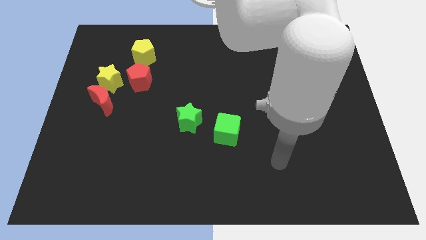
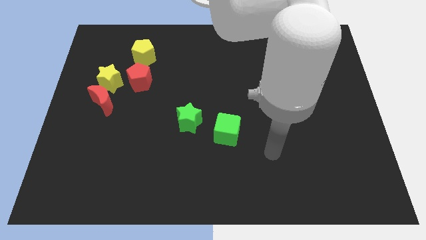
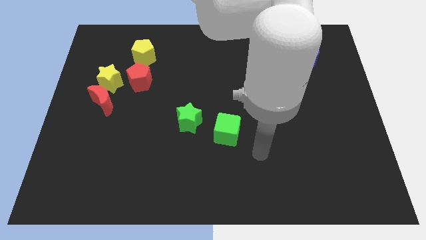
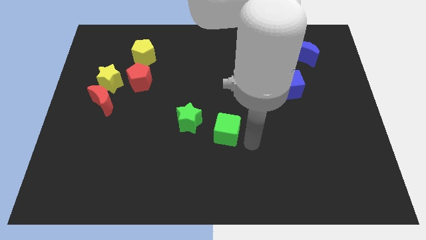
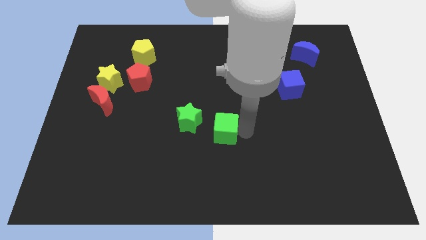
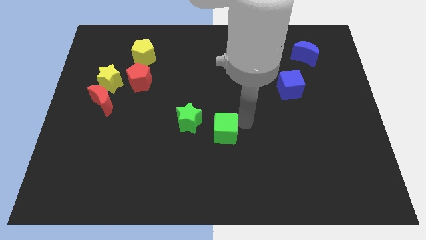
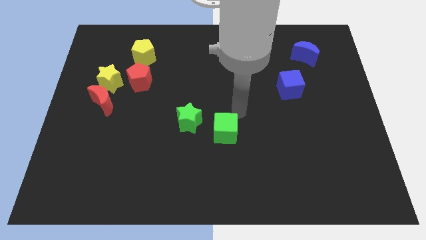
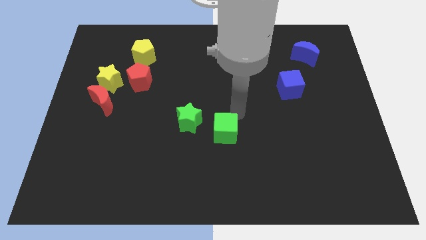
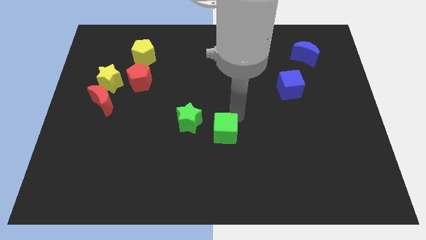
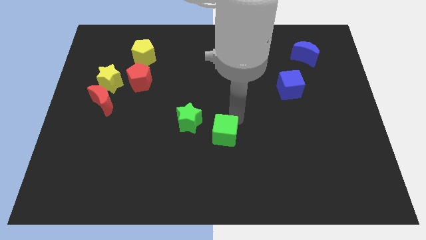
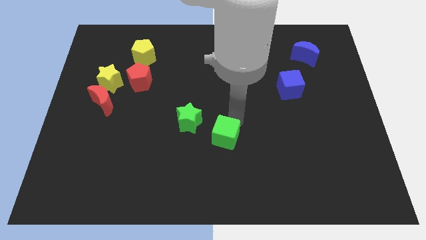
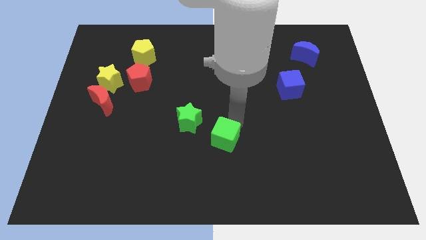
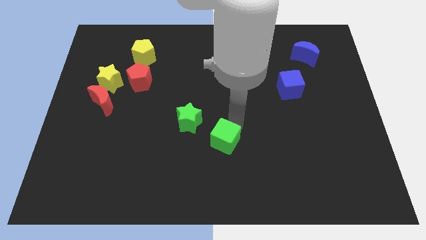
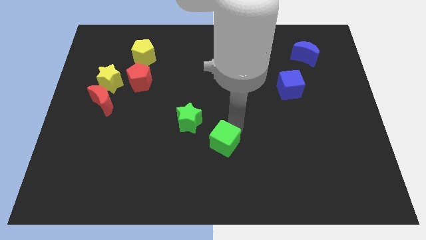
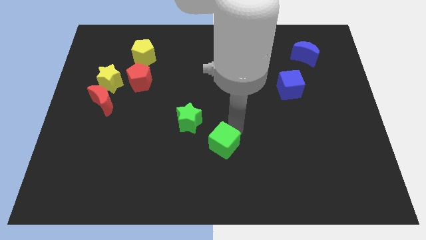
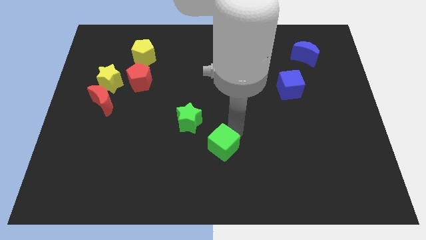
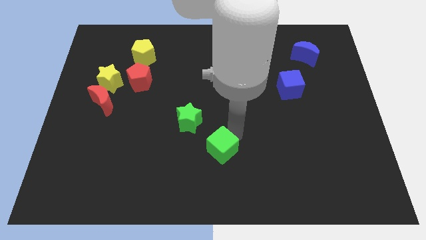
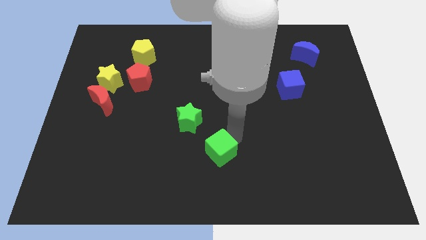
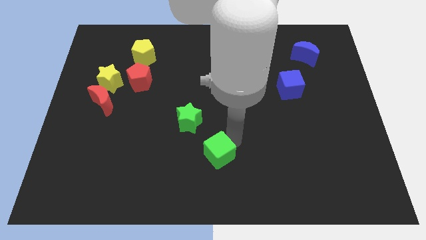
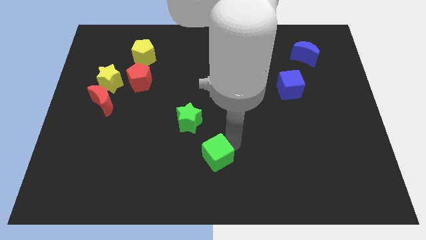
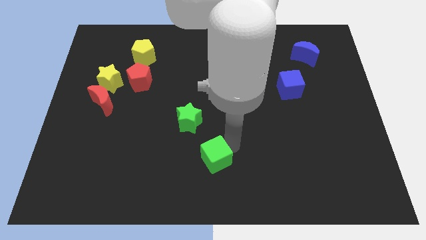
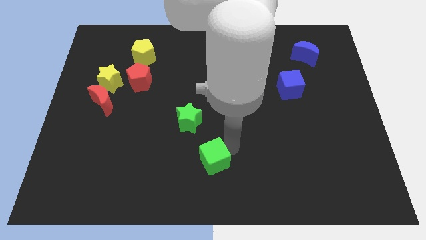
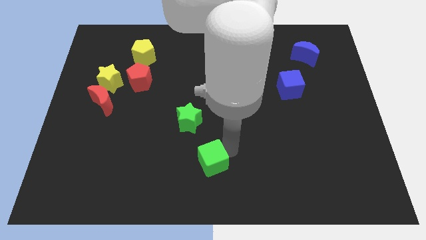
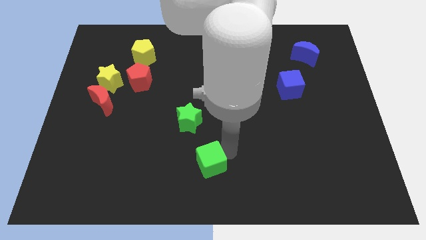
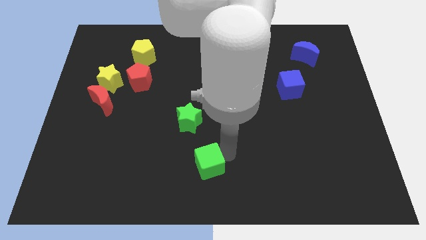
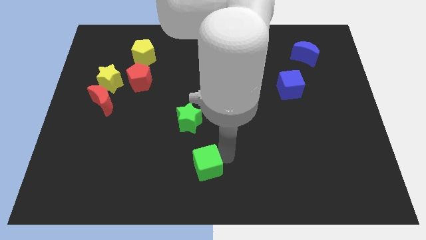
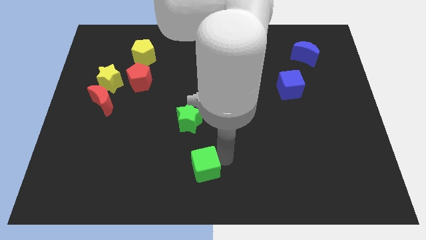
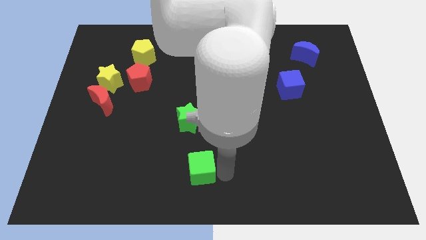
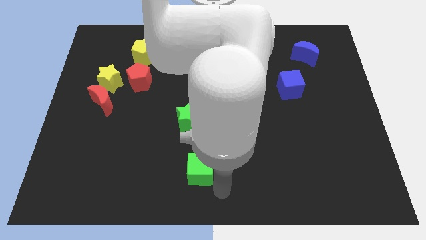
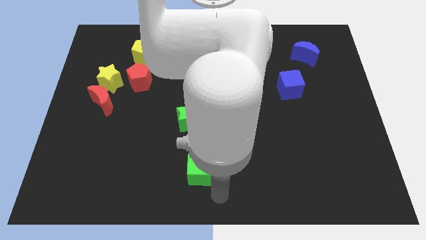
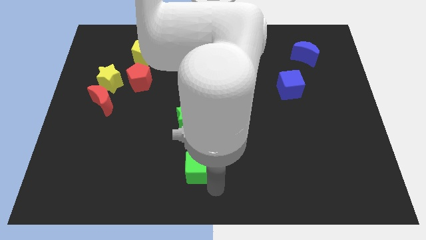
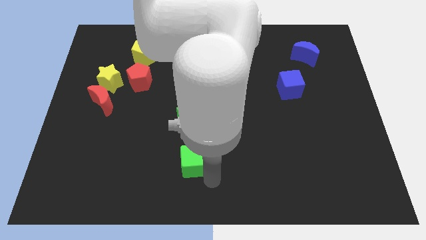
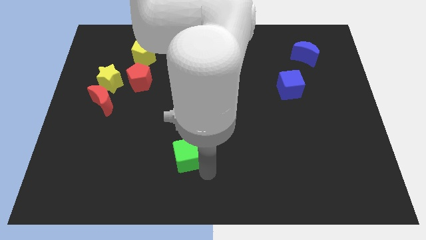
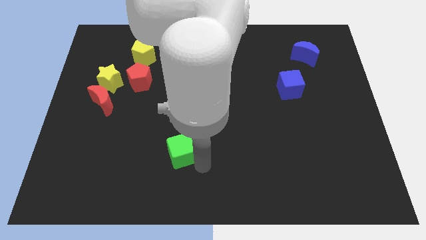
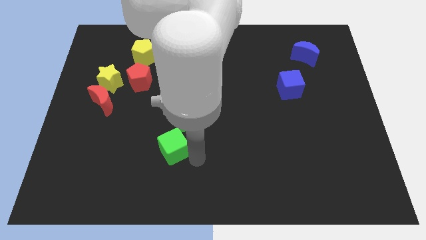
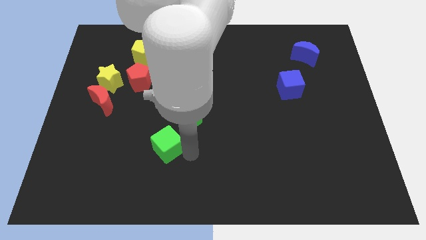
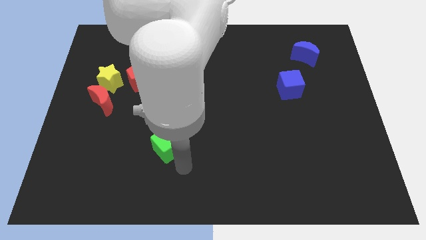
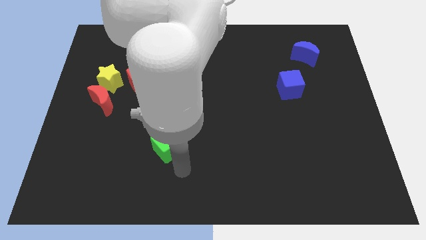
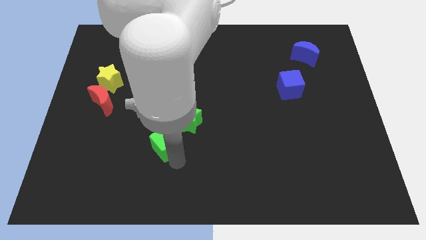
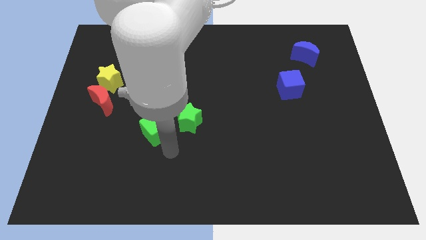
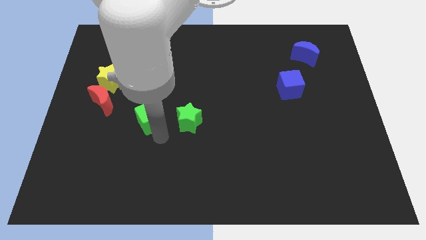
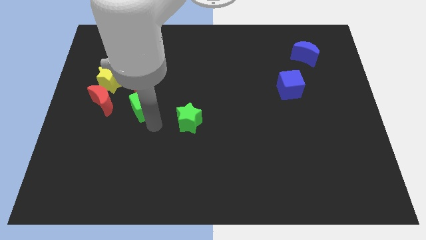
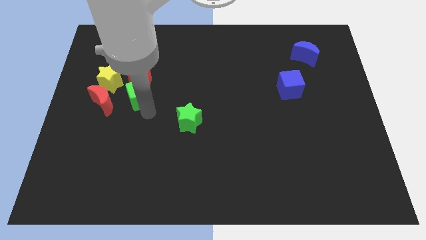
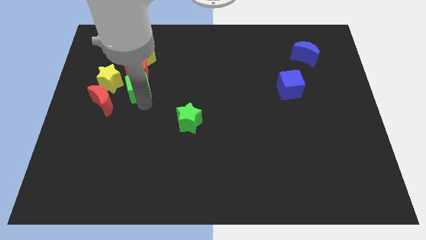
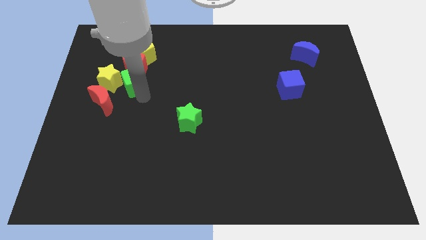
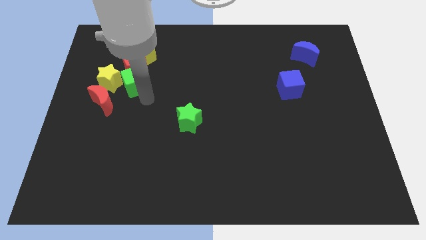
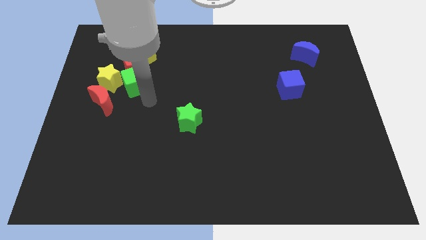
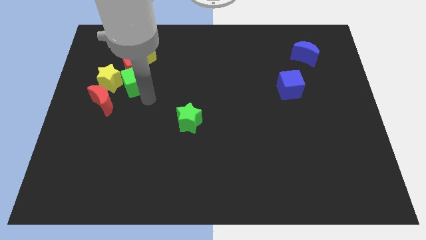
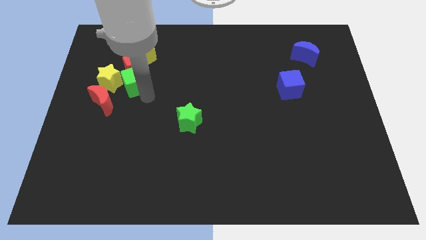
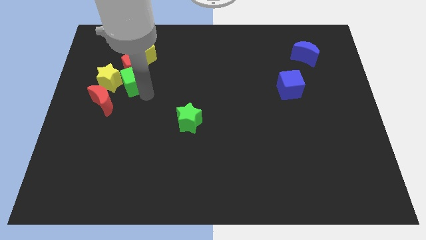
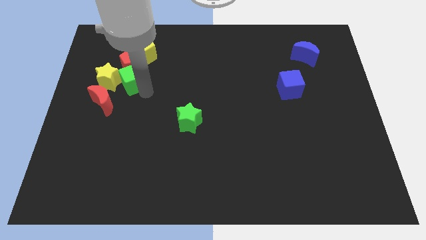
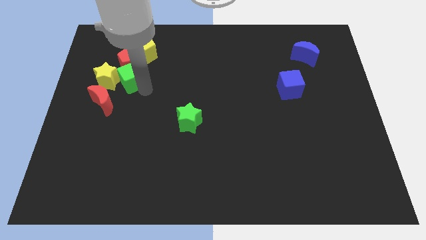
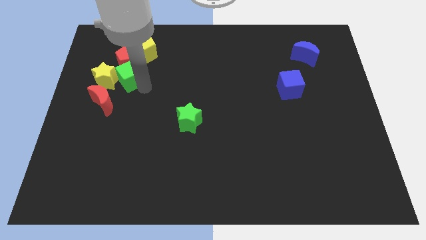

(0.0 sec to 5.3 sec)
push the green cube diagonally down and to the left of the yellow pentagon

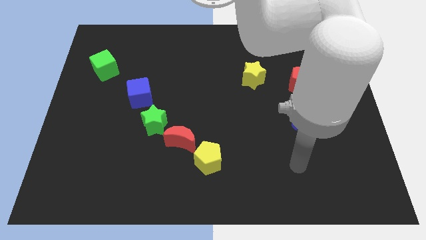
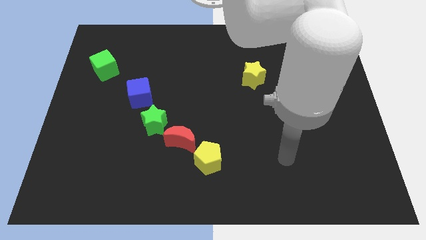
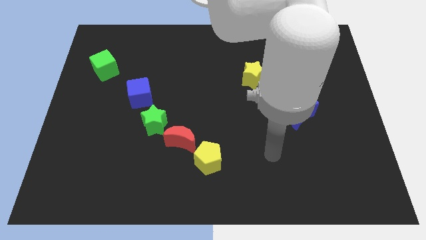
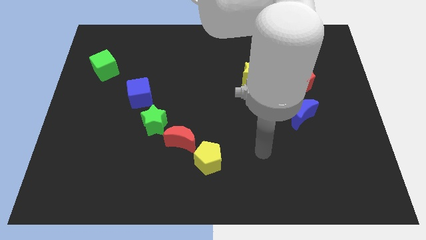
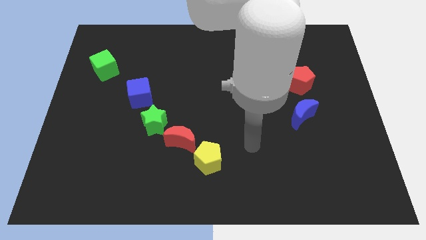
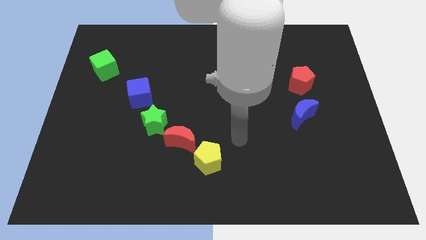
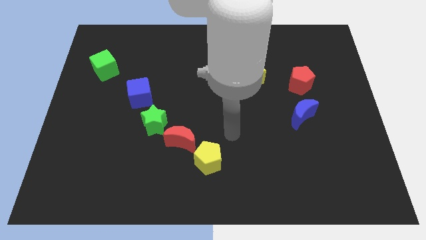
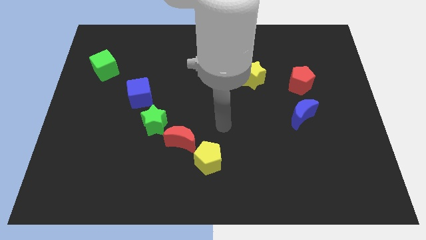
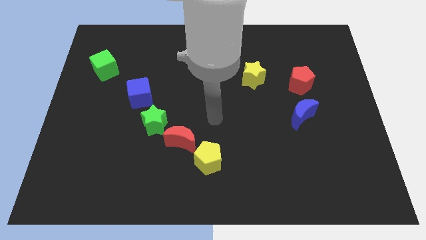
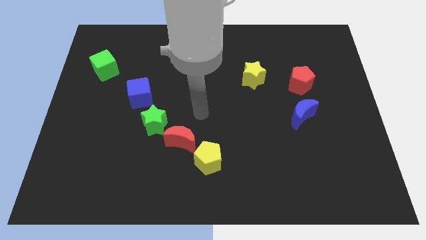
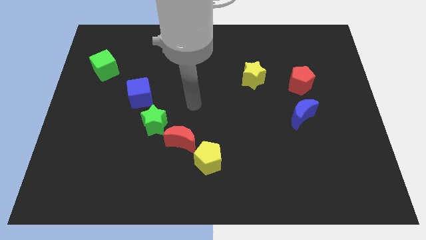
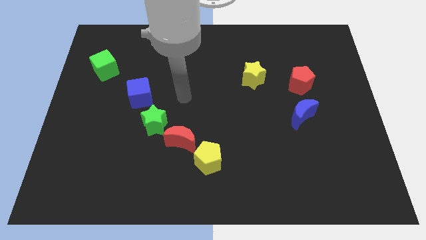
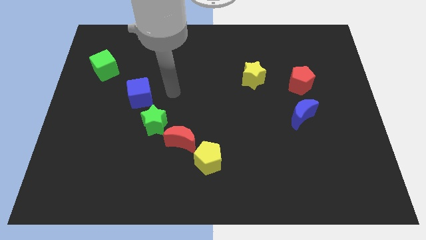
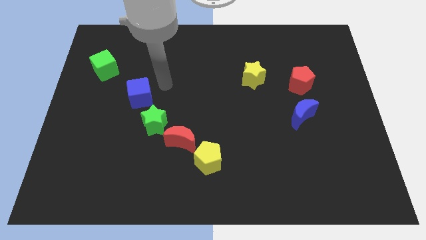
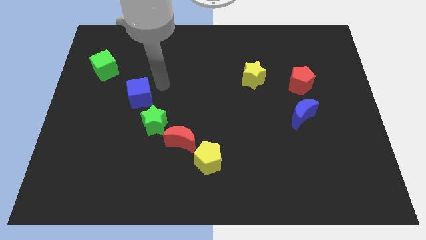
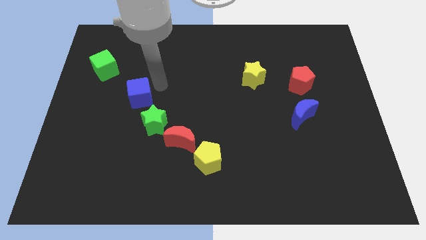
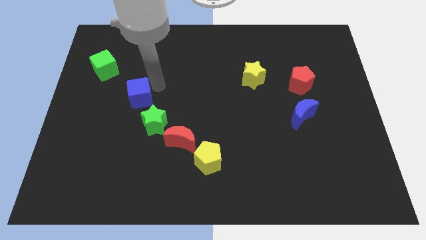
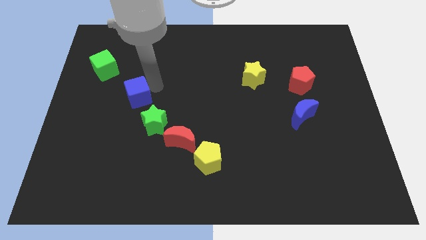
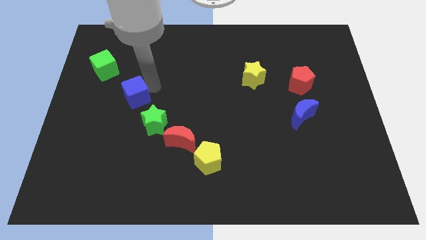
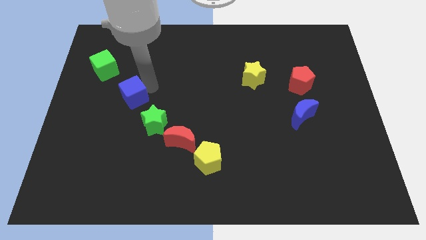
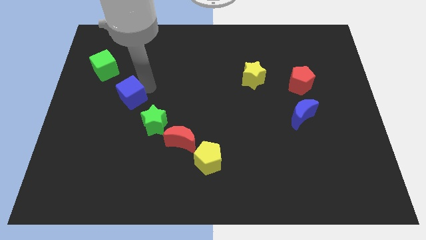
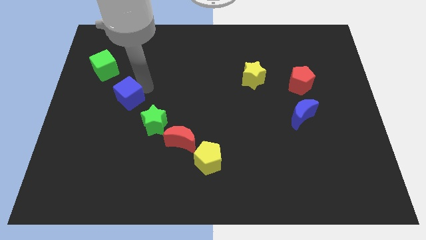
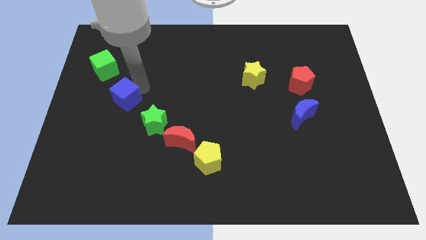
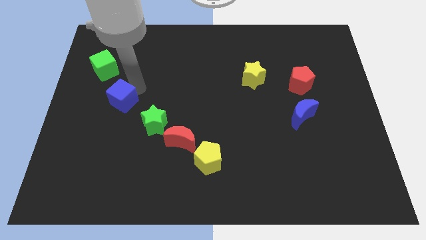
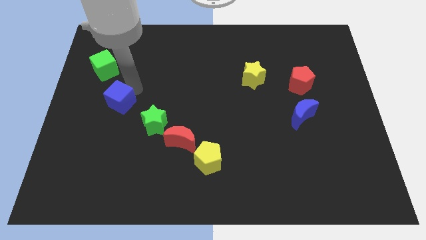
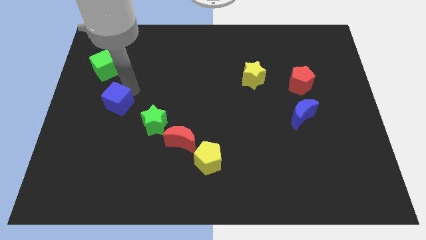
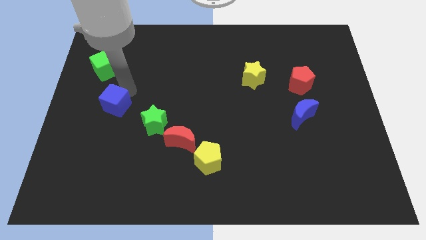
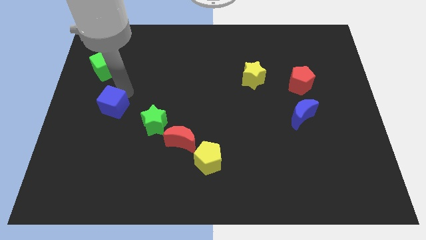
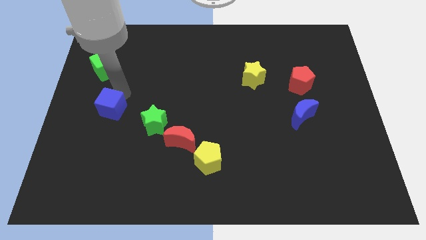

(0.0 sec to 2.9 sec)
slide the blue cube left of the green star
